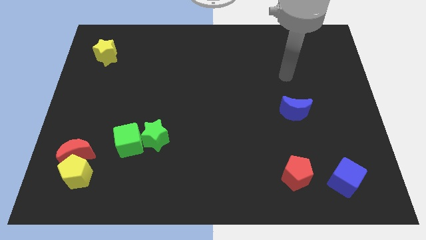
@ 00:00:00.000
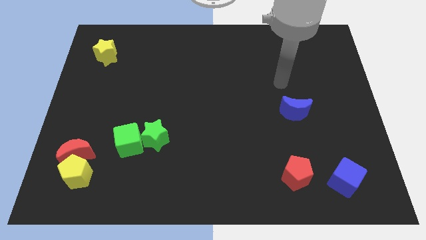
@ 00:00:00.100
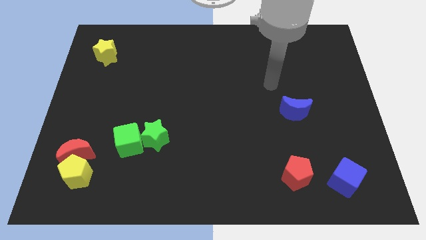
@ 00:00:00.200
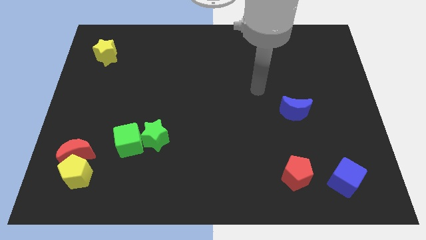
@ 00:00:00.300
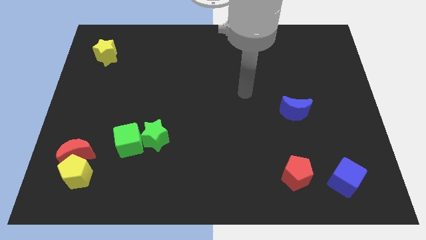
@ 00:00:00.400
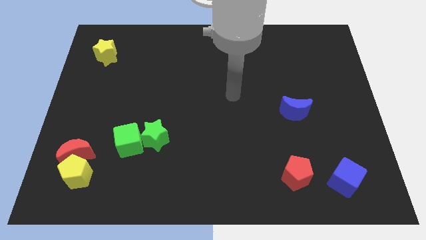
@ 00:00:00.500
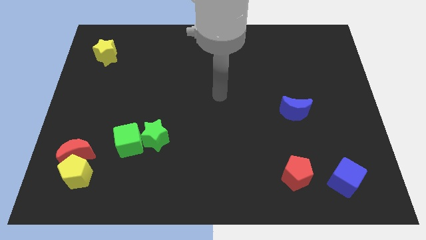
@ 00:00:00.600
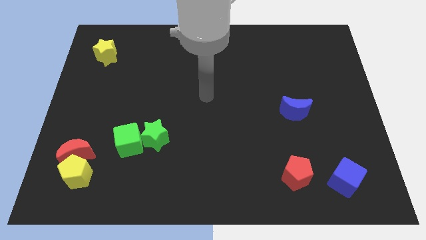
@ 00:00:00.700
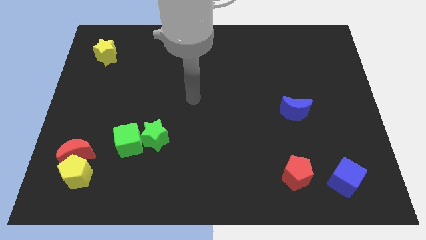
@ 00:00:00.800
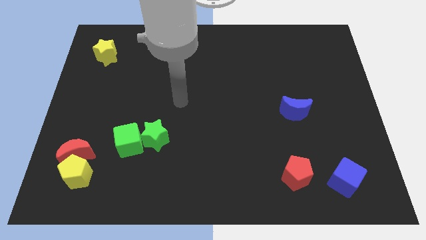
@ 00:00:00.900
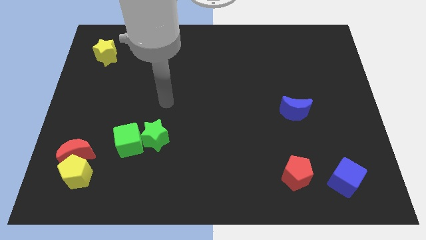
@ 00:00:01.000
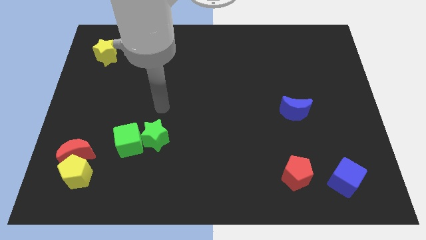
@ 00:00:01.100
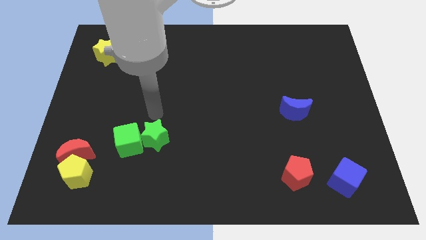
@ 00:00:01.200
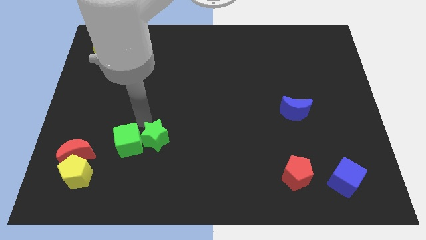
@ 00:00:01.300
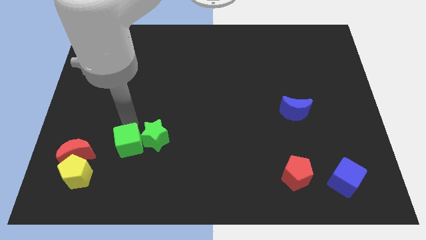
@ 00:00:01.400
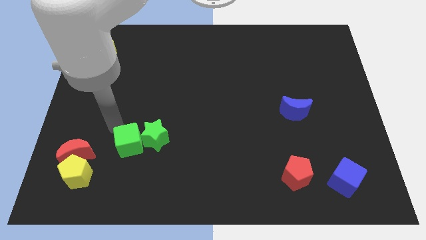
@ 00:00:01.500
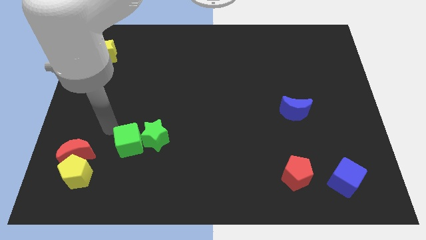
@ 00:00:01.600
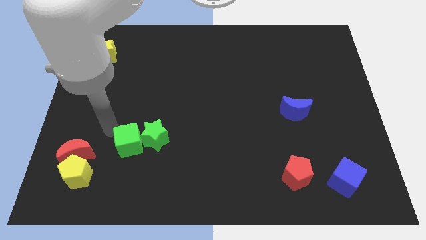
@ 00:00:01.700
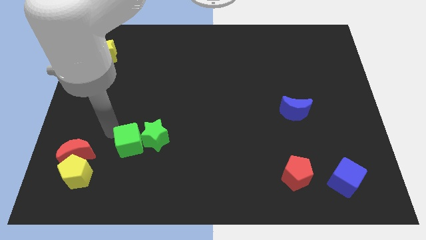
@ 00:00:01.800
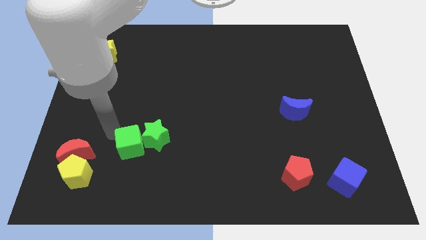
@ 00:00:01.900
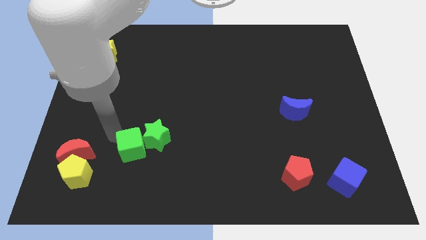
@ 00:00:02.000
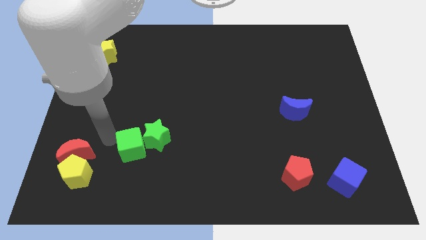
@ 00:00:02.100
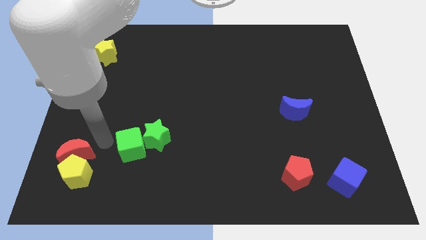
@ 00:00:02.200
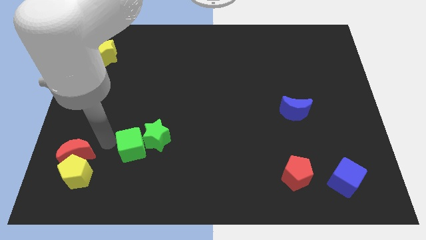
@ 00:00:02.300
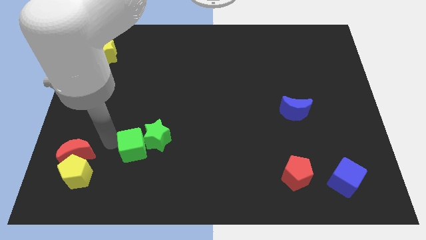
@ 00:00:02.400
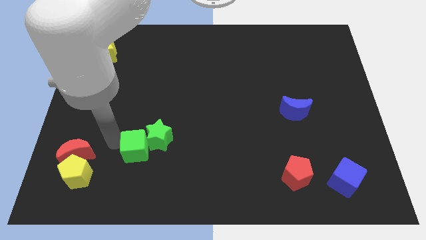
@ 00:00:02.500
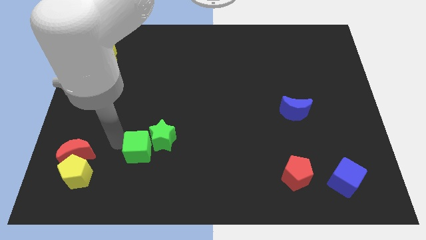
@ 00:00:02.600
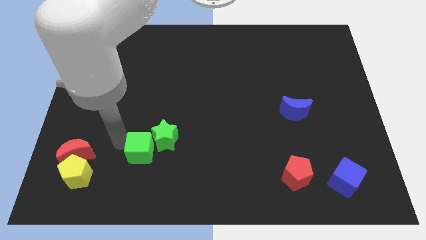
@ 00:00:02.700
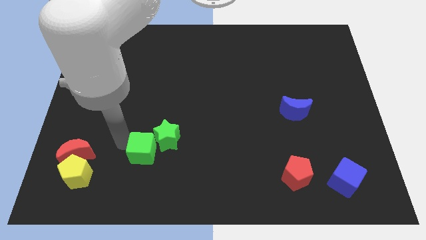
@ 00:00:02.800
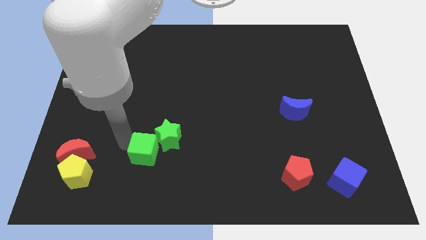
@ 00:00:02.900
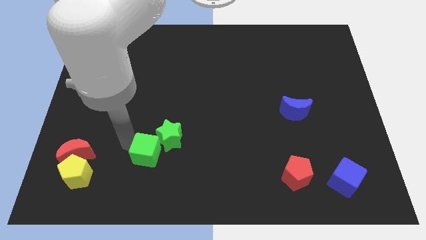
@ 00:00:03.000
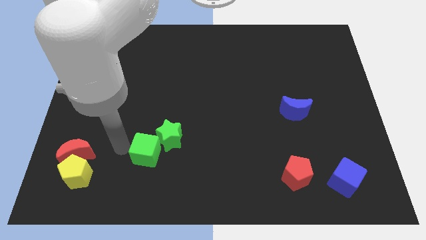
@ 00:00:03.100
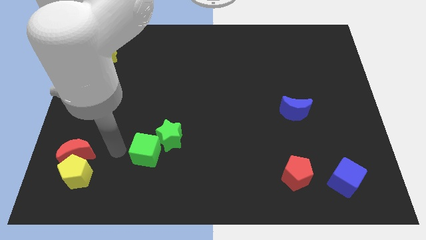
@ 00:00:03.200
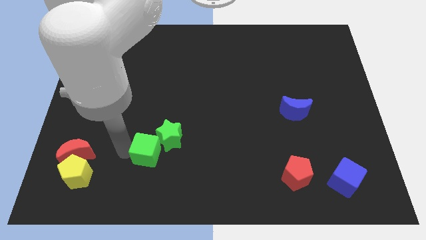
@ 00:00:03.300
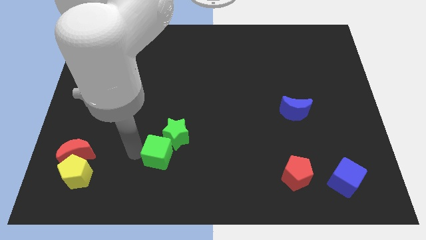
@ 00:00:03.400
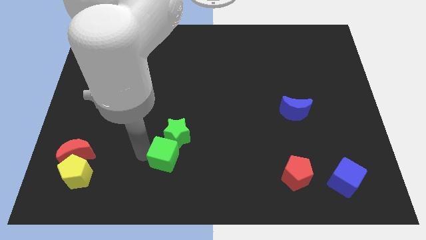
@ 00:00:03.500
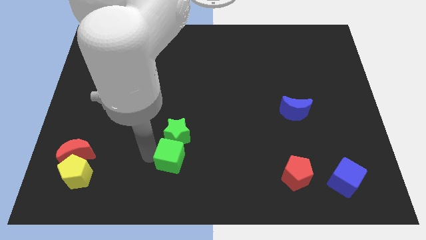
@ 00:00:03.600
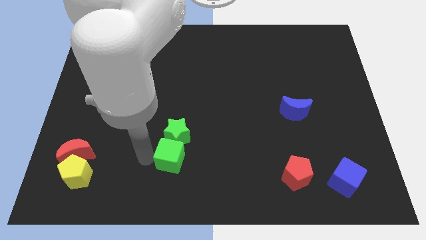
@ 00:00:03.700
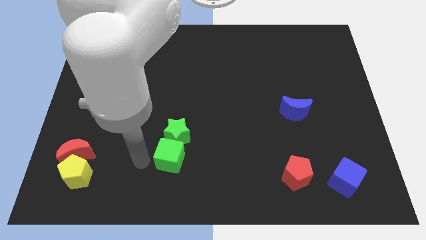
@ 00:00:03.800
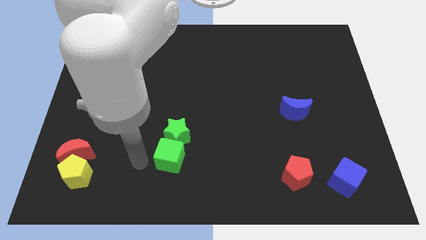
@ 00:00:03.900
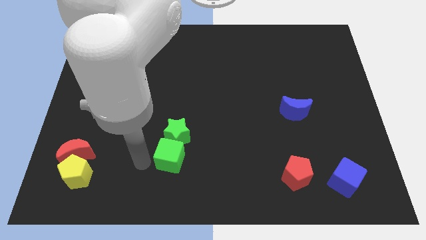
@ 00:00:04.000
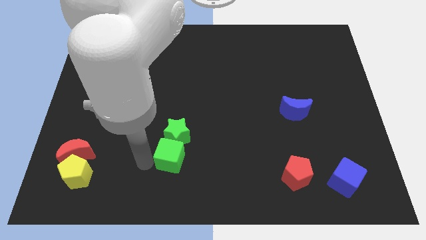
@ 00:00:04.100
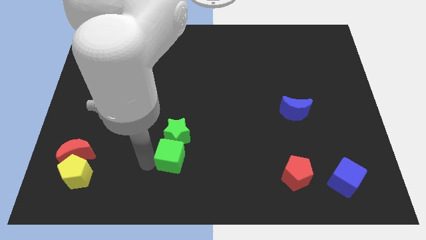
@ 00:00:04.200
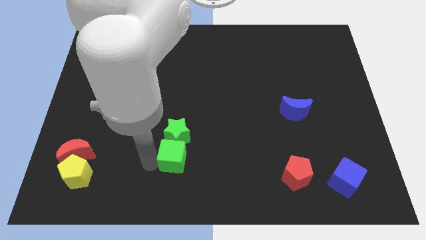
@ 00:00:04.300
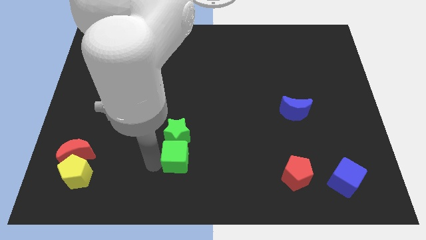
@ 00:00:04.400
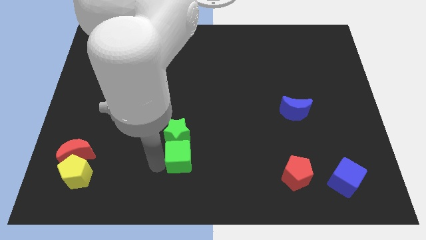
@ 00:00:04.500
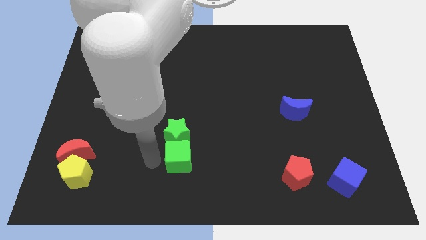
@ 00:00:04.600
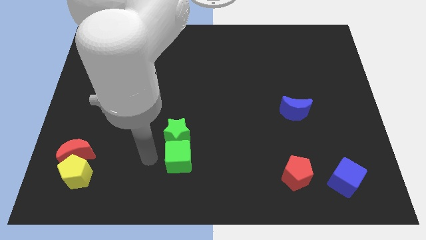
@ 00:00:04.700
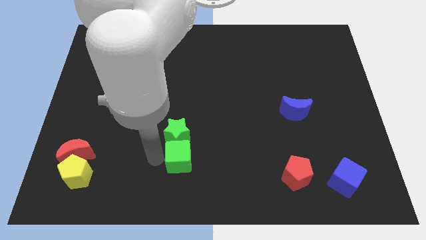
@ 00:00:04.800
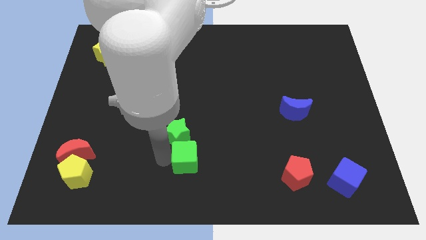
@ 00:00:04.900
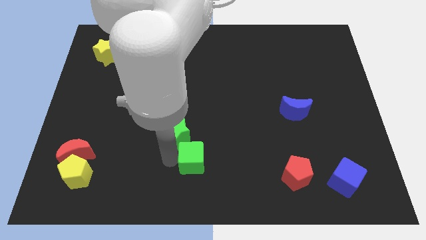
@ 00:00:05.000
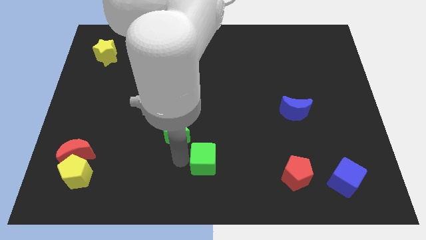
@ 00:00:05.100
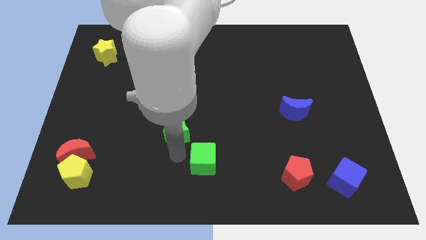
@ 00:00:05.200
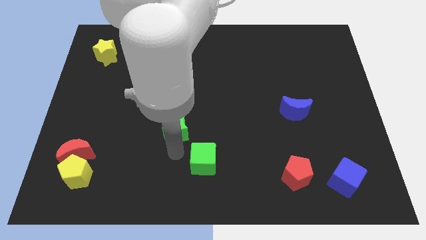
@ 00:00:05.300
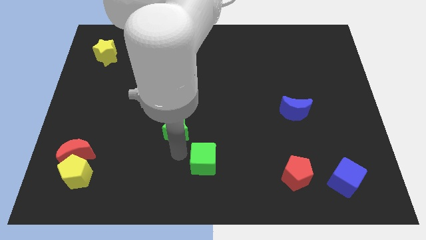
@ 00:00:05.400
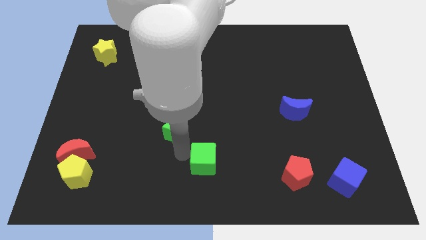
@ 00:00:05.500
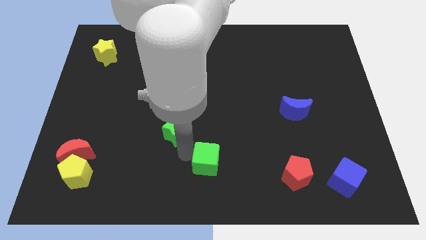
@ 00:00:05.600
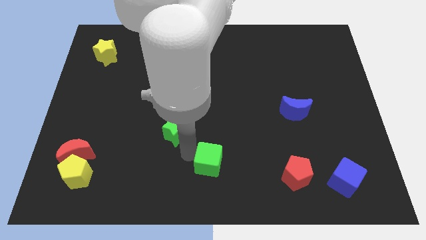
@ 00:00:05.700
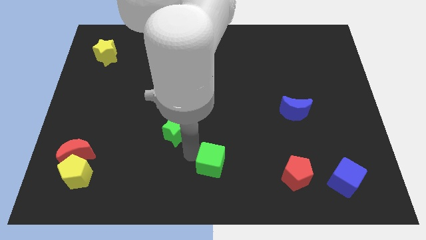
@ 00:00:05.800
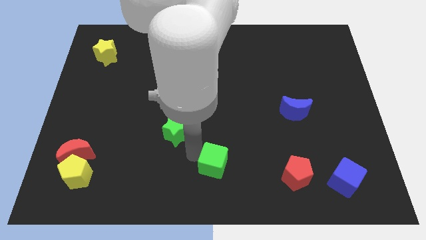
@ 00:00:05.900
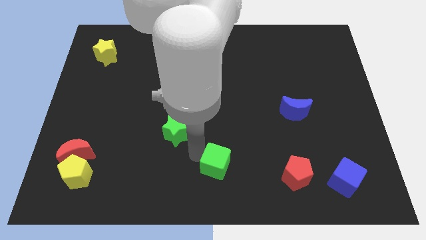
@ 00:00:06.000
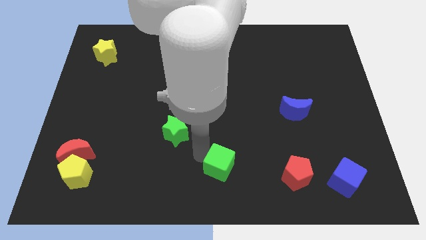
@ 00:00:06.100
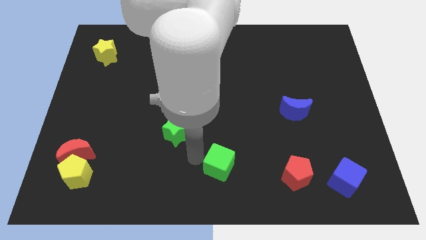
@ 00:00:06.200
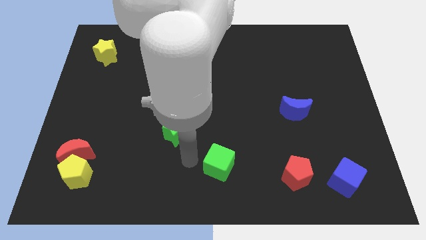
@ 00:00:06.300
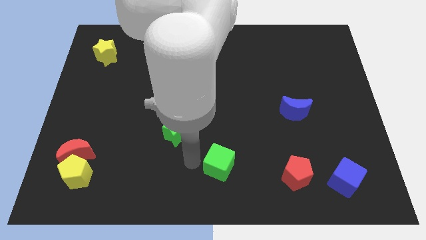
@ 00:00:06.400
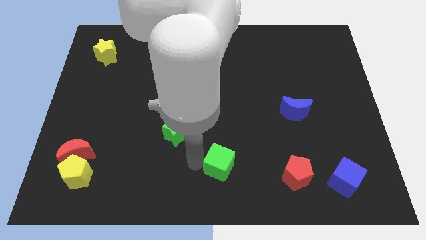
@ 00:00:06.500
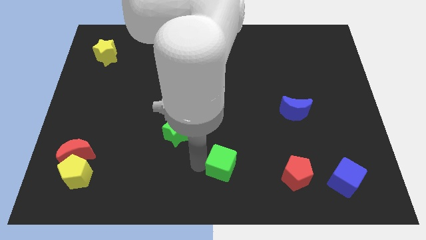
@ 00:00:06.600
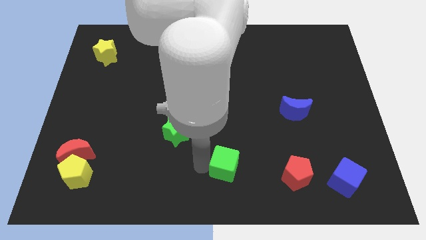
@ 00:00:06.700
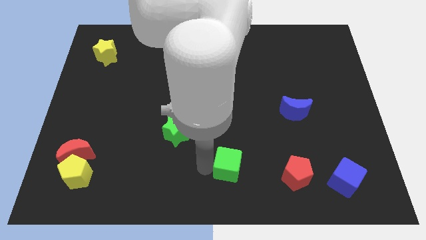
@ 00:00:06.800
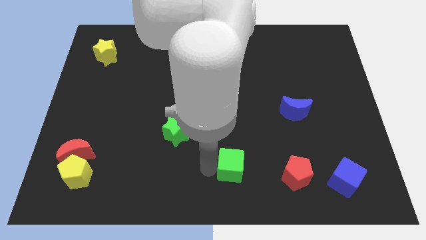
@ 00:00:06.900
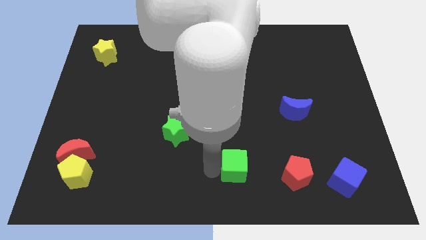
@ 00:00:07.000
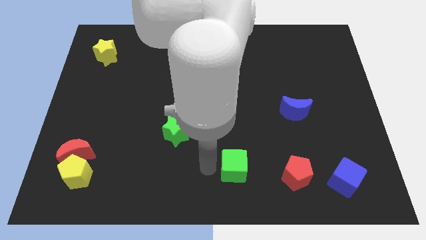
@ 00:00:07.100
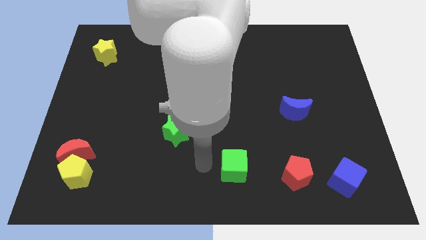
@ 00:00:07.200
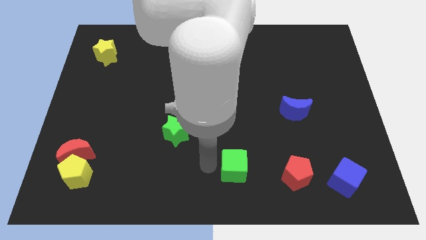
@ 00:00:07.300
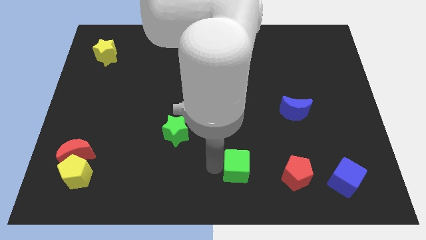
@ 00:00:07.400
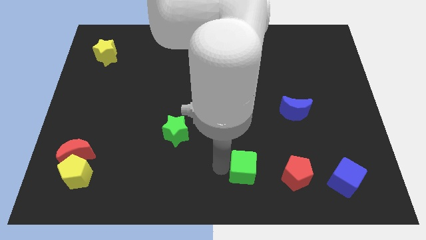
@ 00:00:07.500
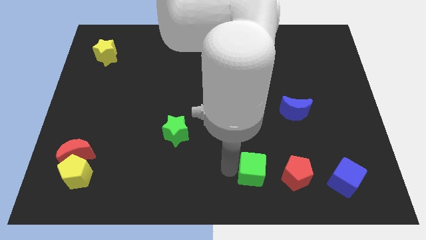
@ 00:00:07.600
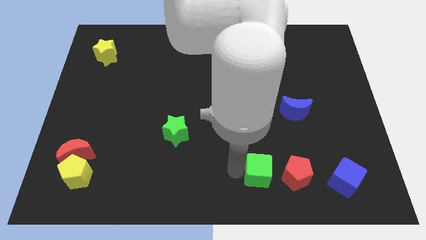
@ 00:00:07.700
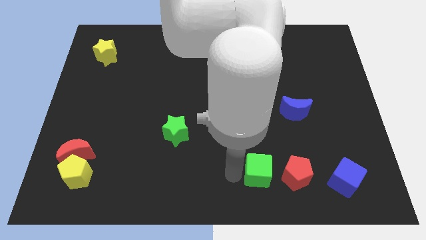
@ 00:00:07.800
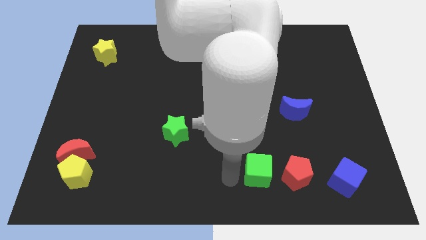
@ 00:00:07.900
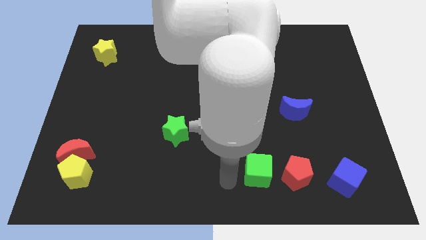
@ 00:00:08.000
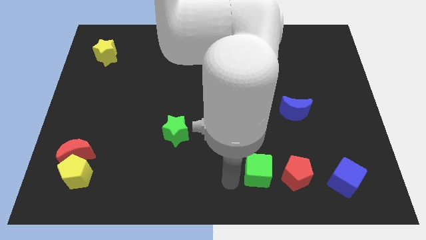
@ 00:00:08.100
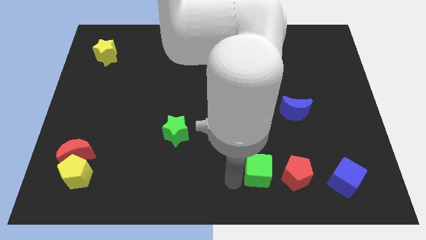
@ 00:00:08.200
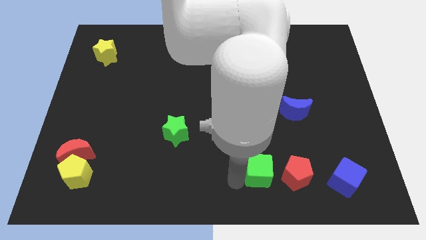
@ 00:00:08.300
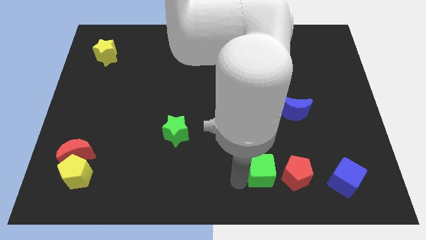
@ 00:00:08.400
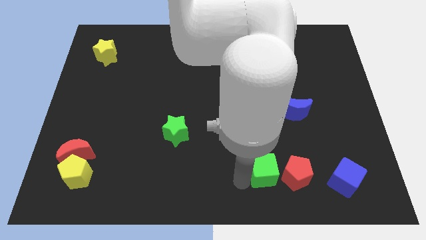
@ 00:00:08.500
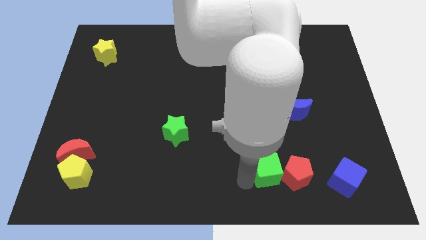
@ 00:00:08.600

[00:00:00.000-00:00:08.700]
put the green cube next to the red pentagon
